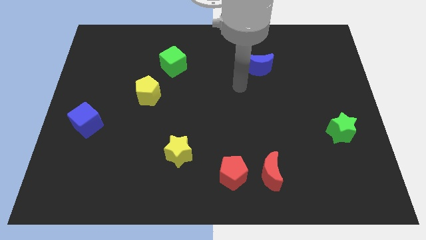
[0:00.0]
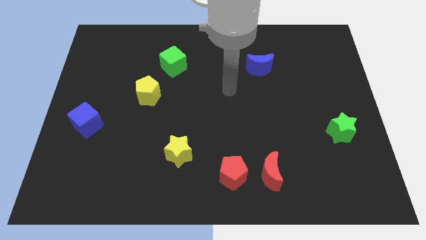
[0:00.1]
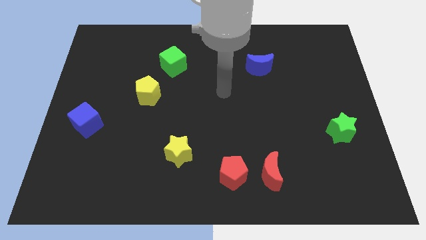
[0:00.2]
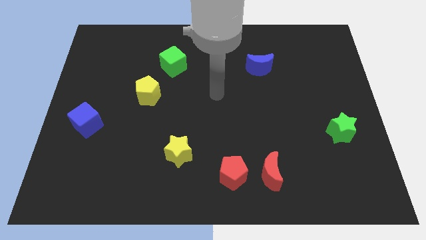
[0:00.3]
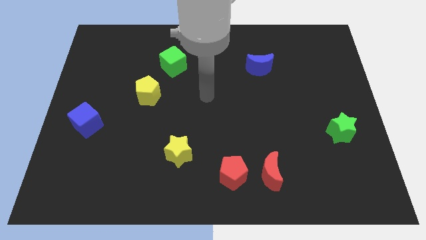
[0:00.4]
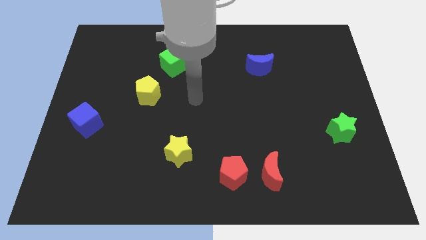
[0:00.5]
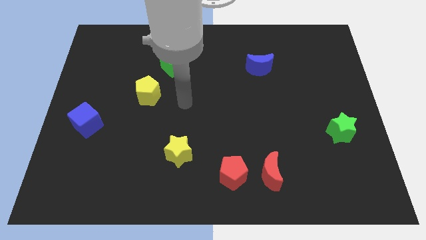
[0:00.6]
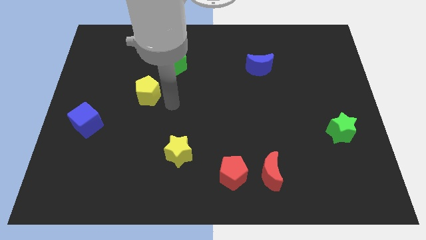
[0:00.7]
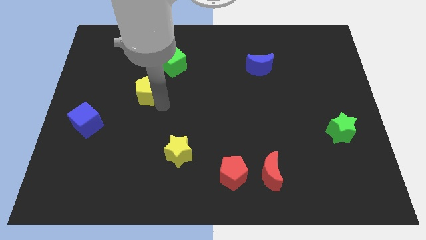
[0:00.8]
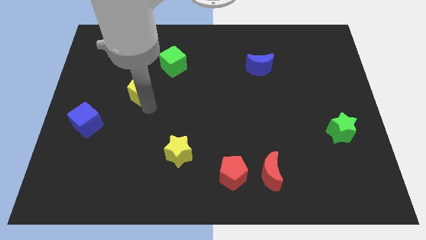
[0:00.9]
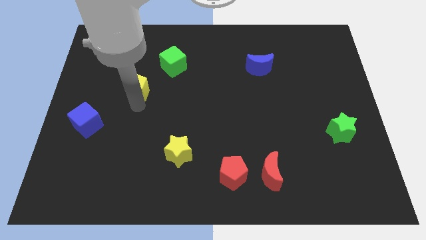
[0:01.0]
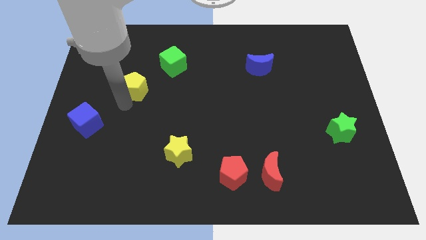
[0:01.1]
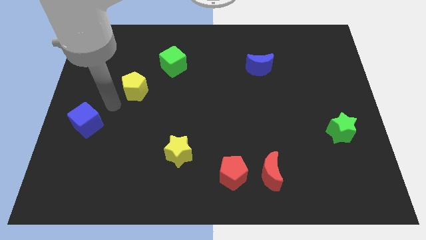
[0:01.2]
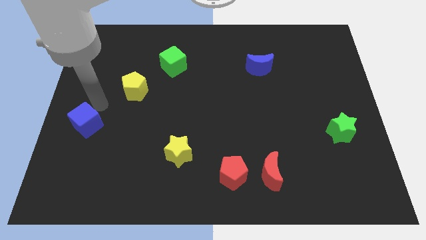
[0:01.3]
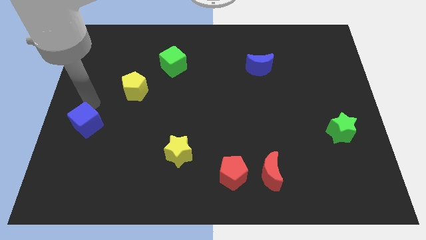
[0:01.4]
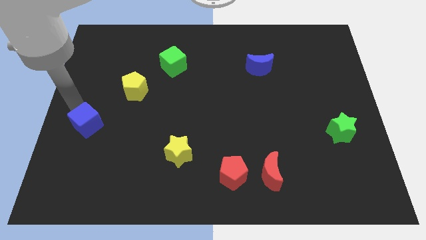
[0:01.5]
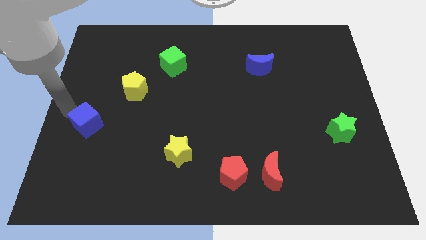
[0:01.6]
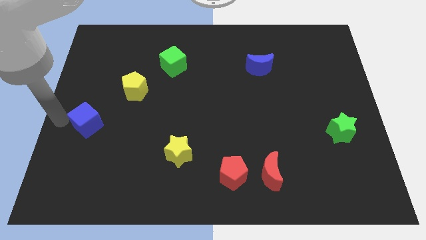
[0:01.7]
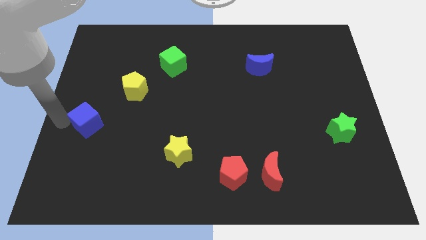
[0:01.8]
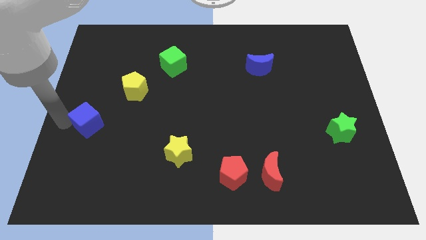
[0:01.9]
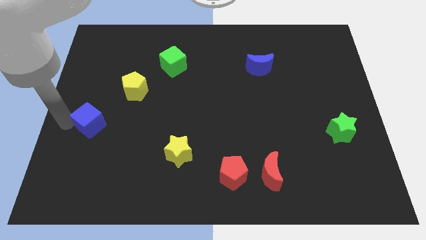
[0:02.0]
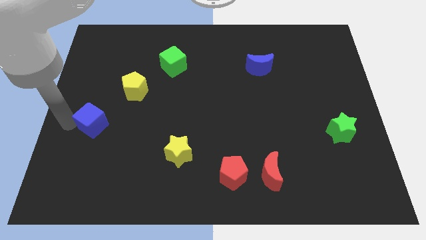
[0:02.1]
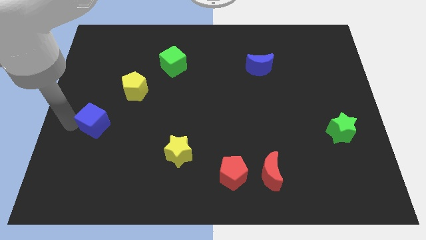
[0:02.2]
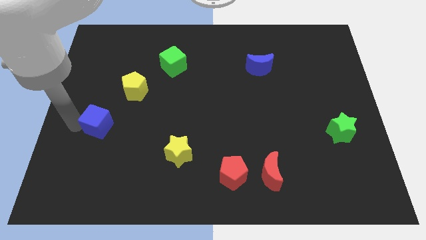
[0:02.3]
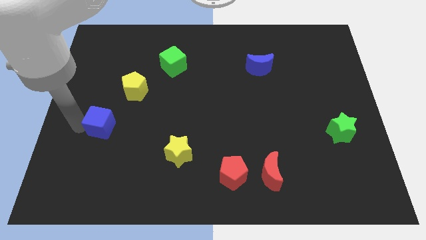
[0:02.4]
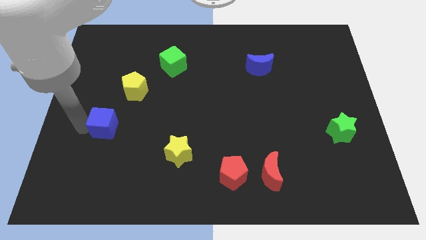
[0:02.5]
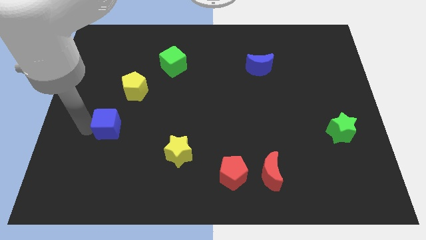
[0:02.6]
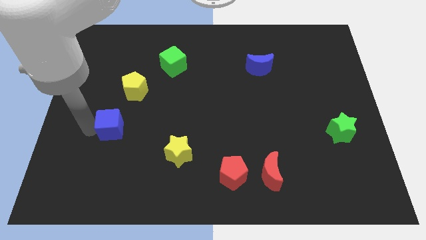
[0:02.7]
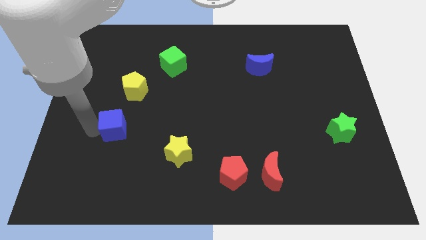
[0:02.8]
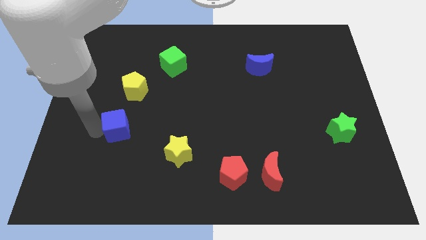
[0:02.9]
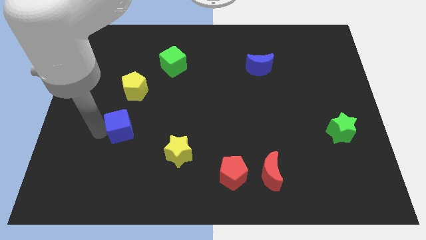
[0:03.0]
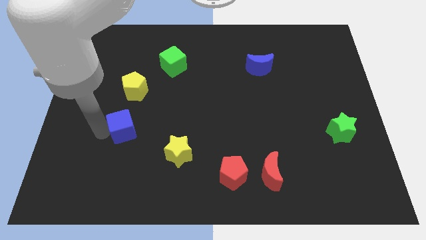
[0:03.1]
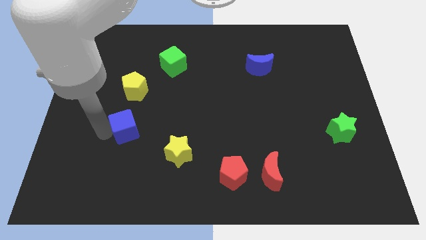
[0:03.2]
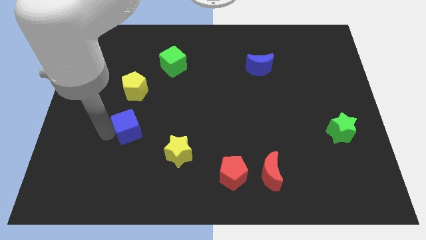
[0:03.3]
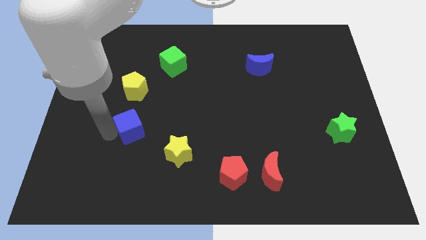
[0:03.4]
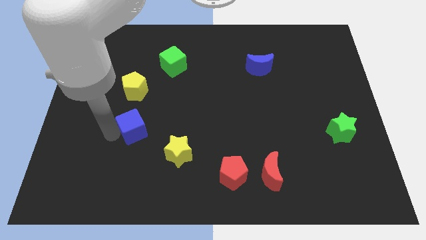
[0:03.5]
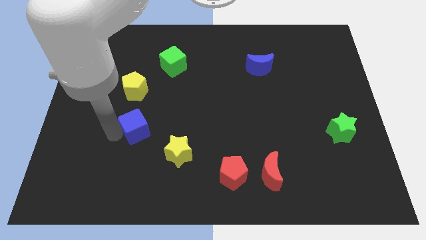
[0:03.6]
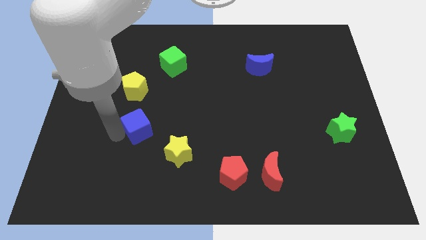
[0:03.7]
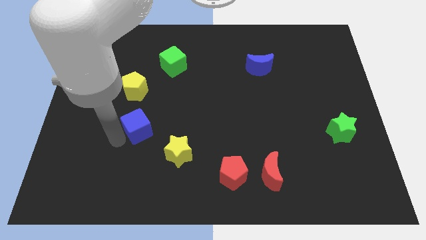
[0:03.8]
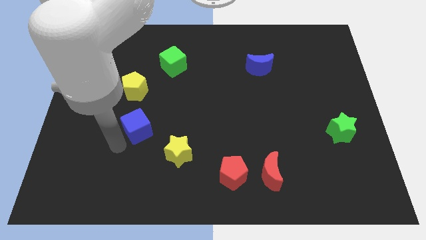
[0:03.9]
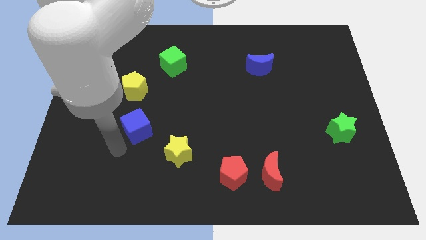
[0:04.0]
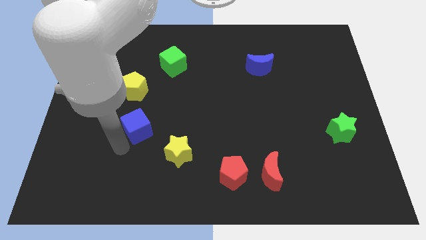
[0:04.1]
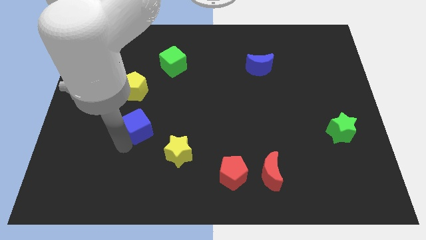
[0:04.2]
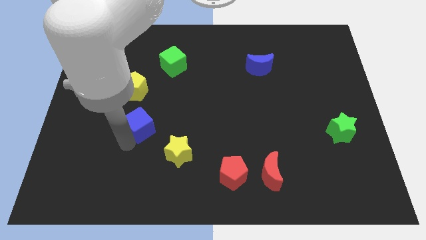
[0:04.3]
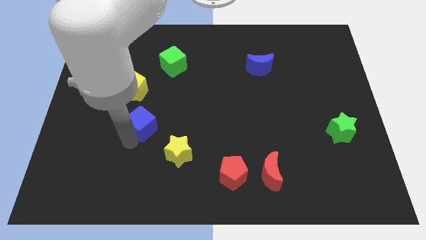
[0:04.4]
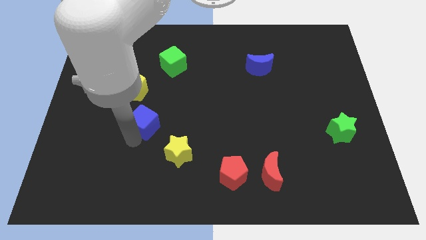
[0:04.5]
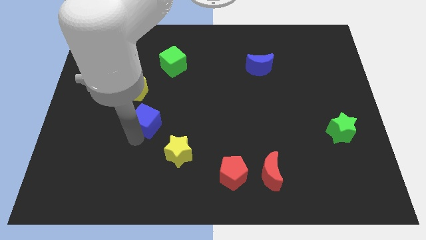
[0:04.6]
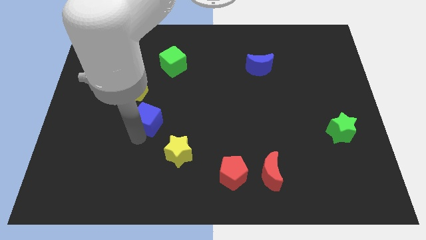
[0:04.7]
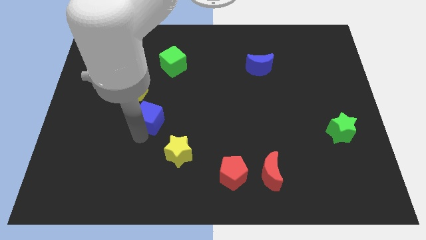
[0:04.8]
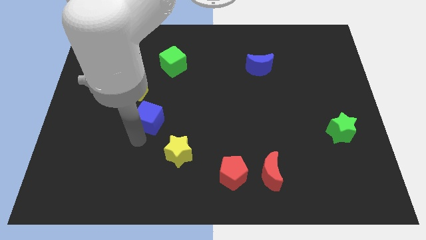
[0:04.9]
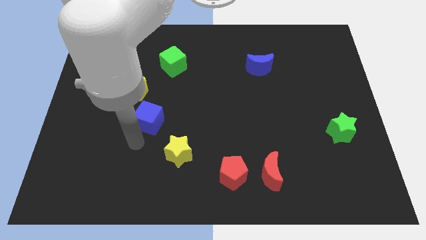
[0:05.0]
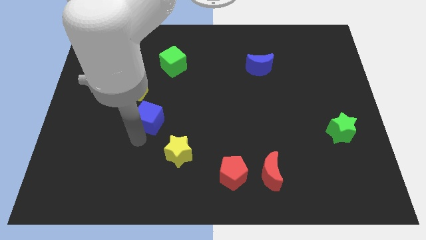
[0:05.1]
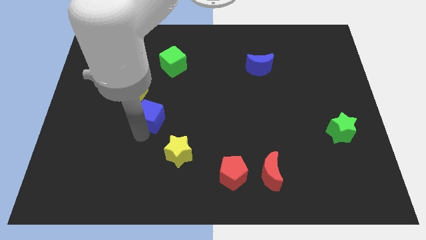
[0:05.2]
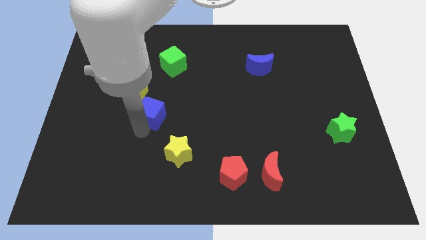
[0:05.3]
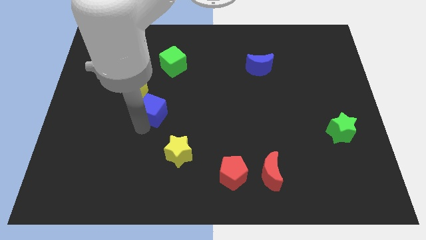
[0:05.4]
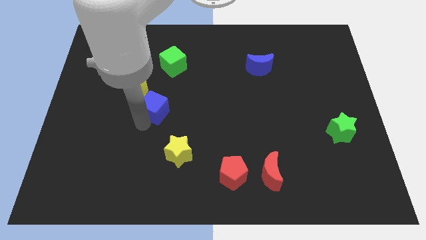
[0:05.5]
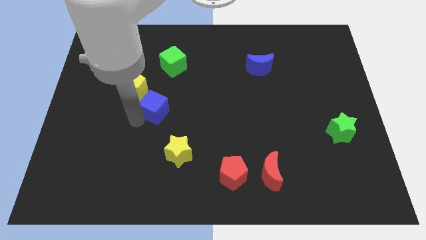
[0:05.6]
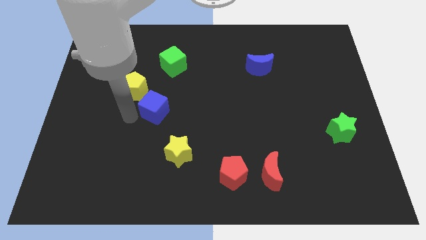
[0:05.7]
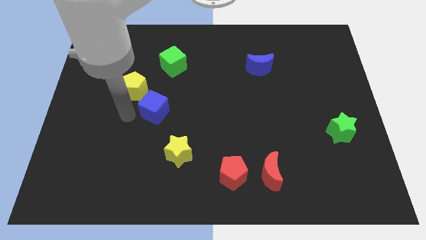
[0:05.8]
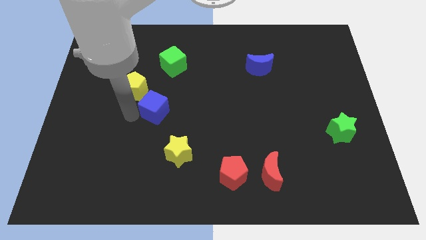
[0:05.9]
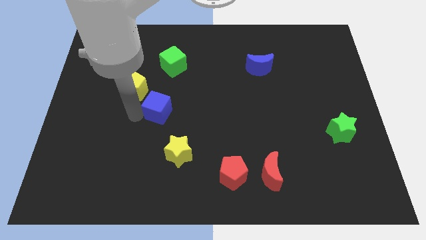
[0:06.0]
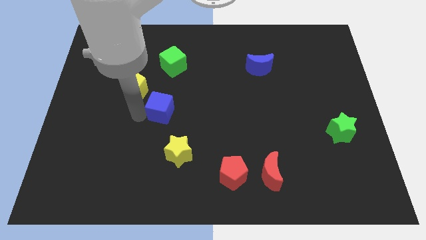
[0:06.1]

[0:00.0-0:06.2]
slide the blue cube to the middle of the board
